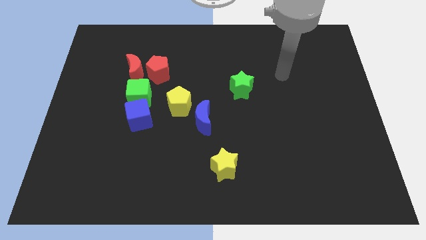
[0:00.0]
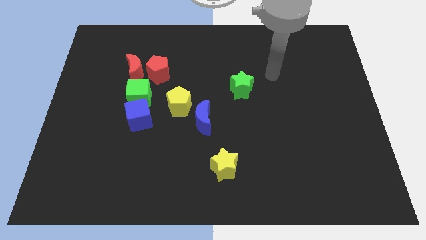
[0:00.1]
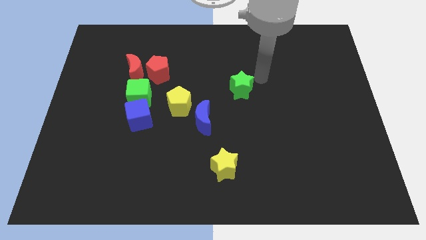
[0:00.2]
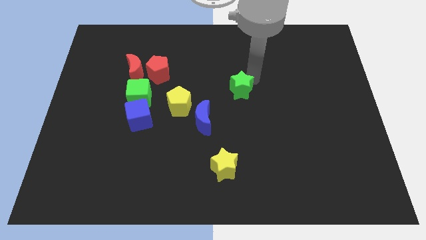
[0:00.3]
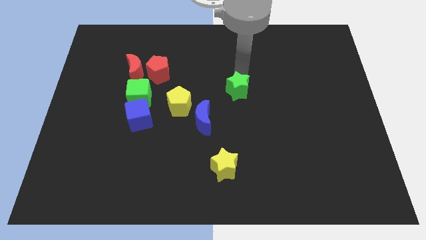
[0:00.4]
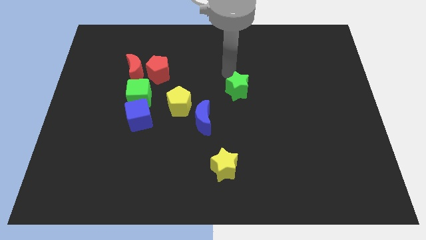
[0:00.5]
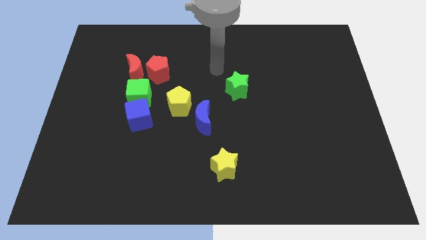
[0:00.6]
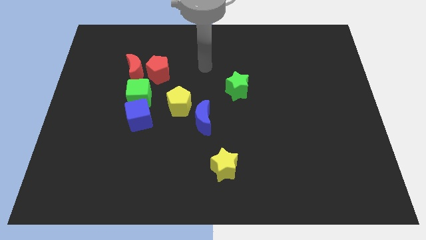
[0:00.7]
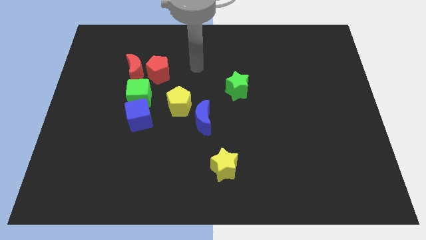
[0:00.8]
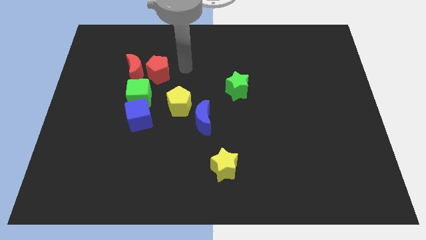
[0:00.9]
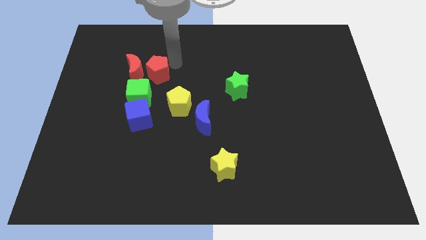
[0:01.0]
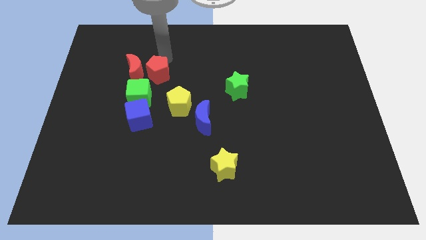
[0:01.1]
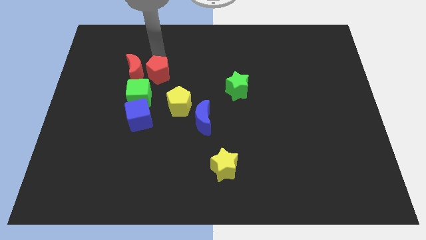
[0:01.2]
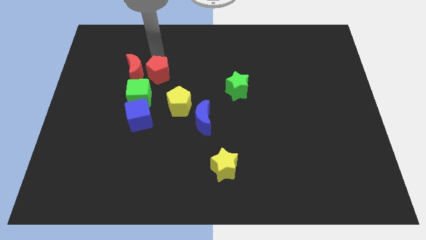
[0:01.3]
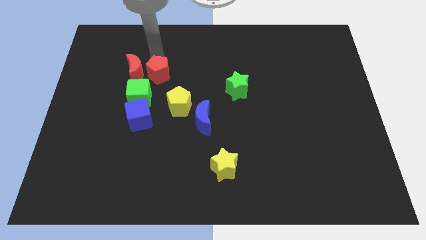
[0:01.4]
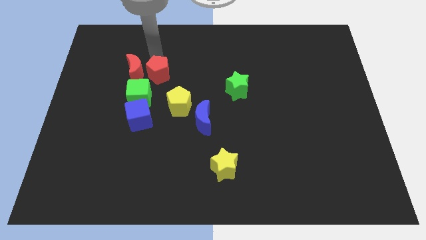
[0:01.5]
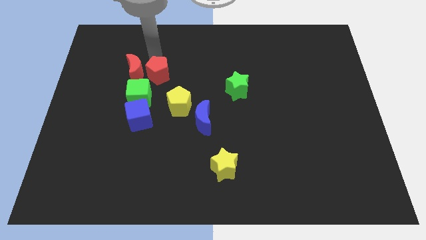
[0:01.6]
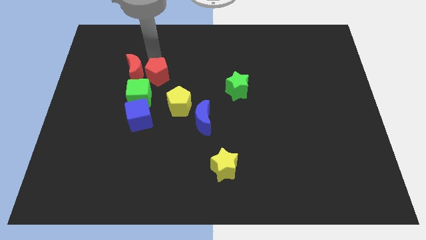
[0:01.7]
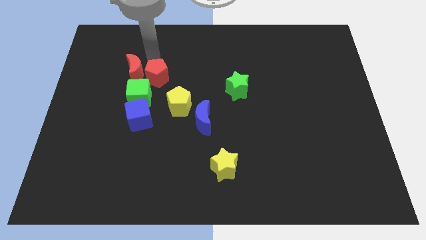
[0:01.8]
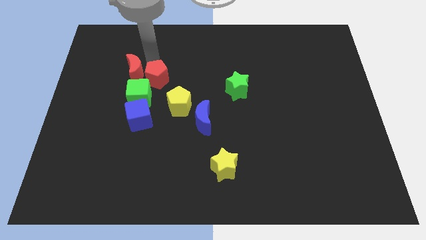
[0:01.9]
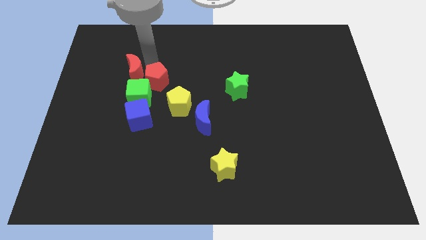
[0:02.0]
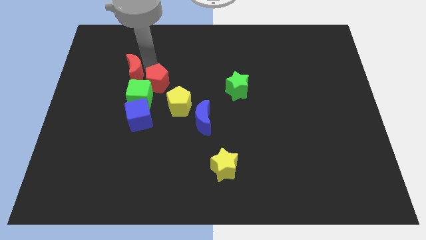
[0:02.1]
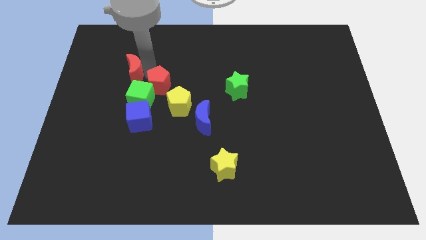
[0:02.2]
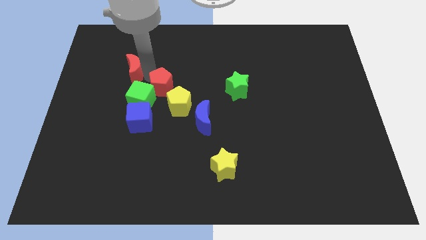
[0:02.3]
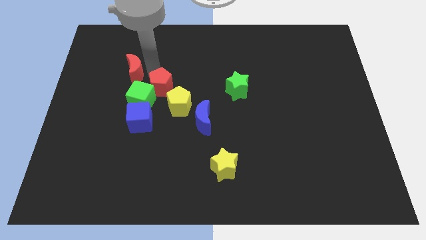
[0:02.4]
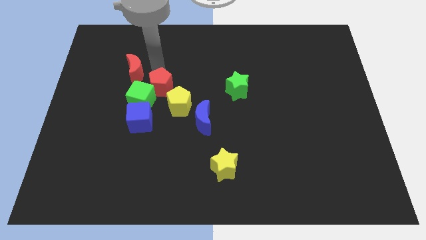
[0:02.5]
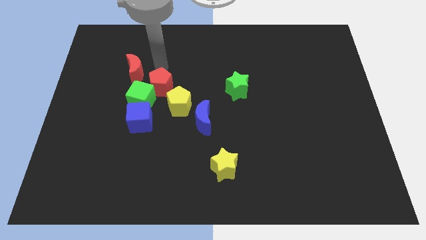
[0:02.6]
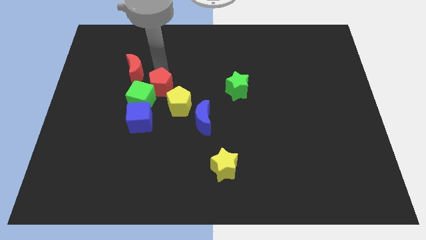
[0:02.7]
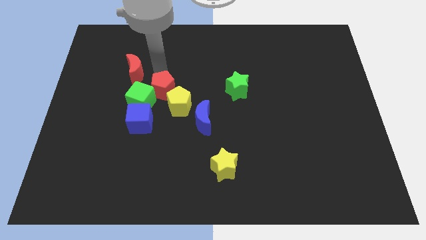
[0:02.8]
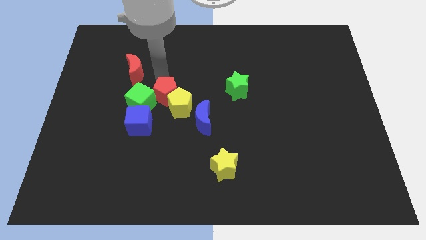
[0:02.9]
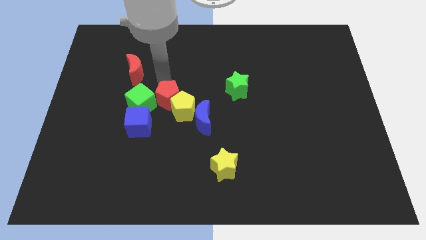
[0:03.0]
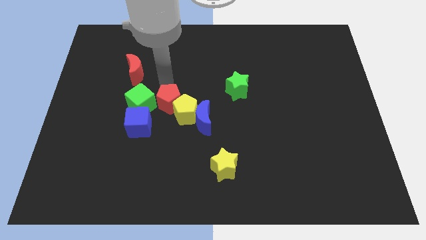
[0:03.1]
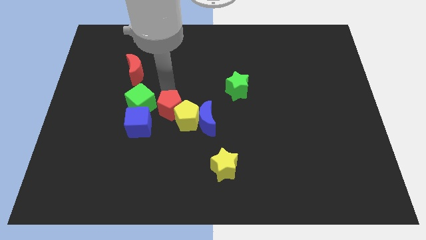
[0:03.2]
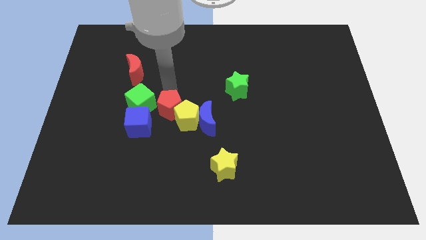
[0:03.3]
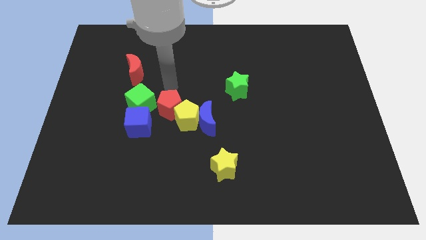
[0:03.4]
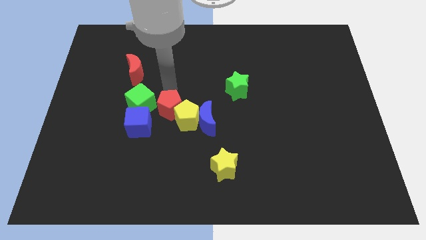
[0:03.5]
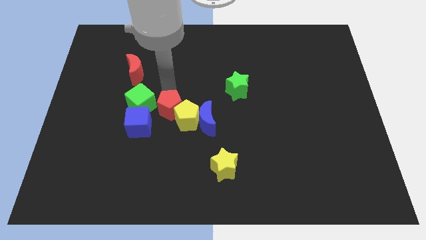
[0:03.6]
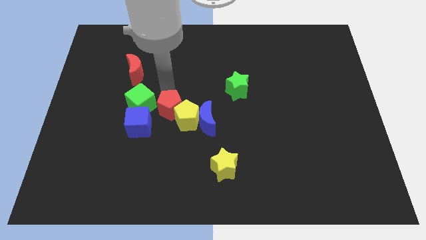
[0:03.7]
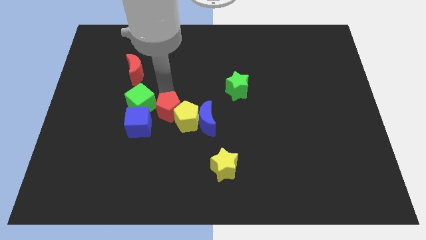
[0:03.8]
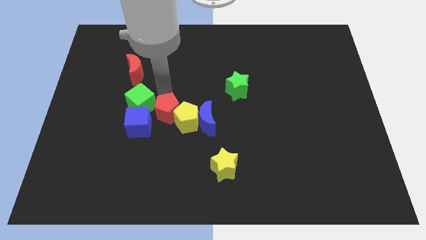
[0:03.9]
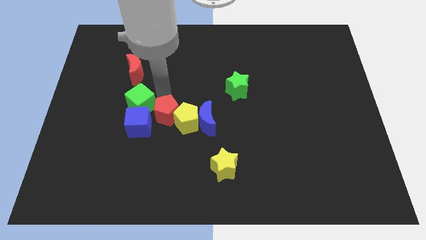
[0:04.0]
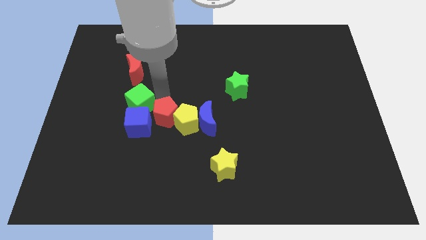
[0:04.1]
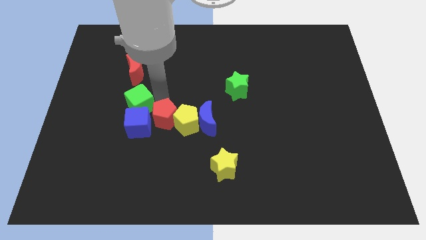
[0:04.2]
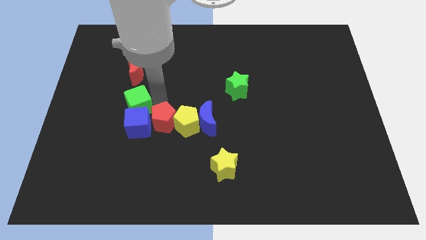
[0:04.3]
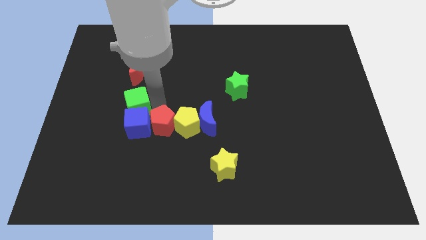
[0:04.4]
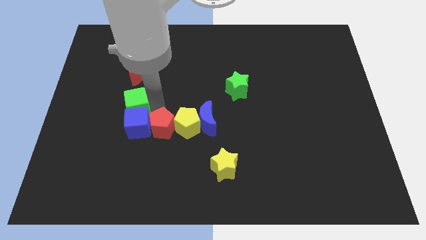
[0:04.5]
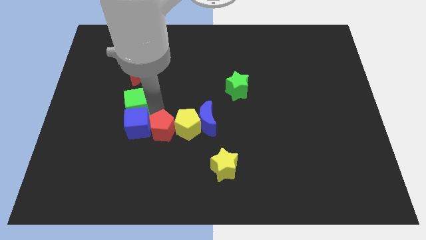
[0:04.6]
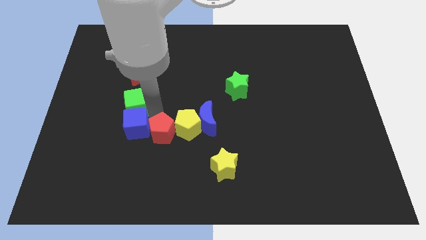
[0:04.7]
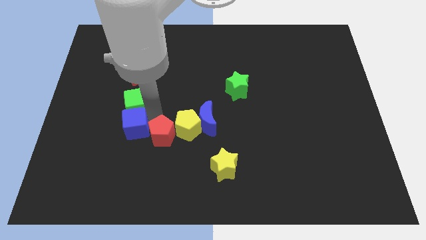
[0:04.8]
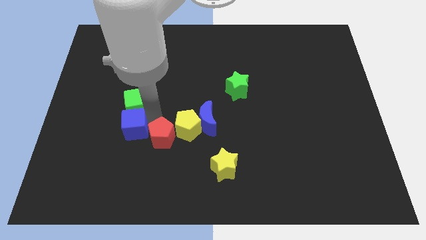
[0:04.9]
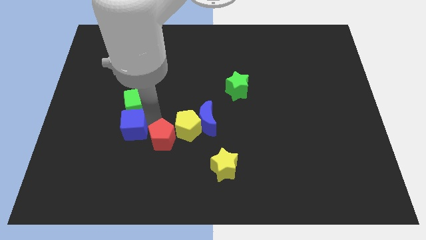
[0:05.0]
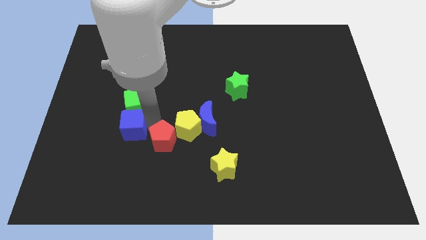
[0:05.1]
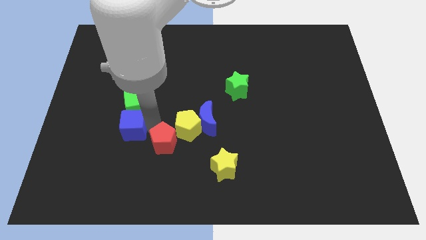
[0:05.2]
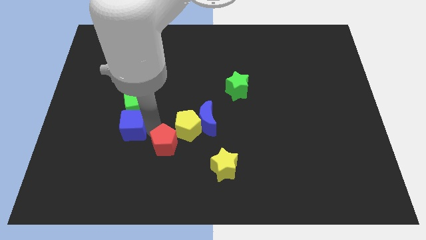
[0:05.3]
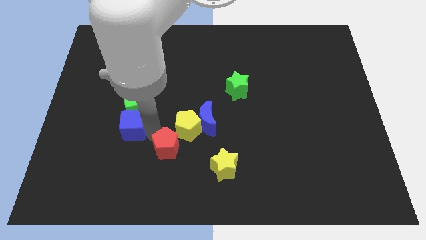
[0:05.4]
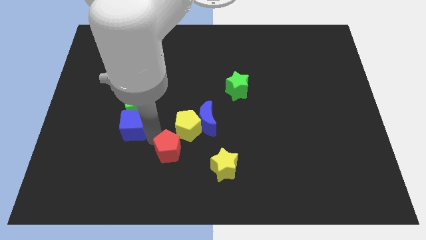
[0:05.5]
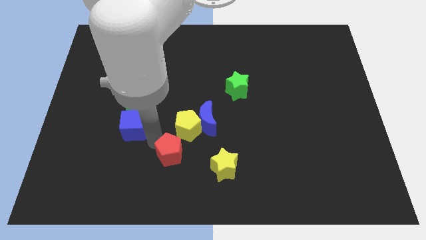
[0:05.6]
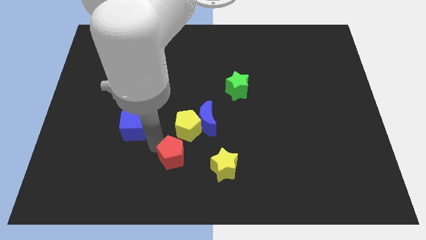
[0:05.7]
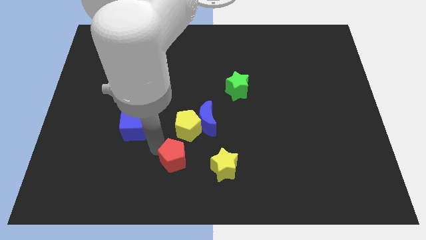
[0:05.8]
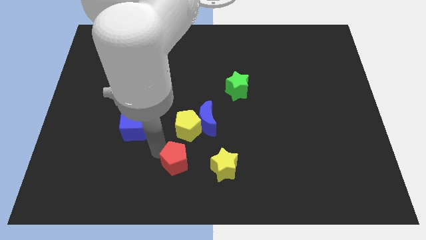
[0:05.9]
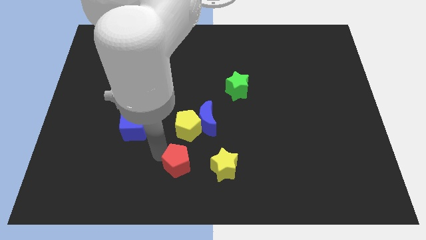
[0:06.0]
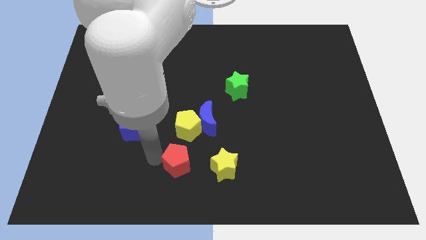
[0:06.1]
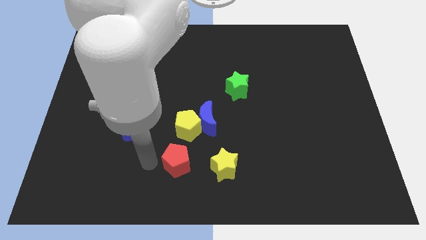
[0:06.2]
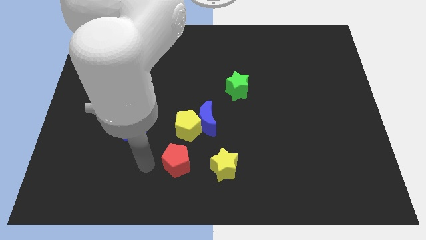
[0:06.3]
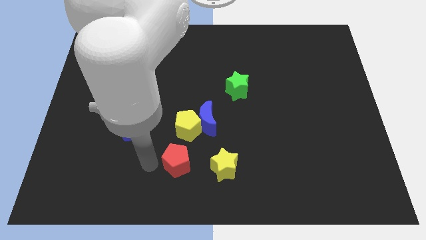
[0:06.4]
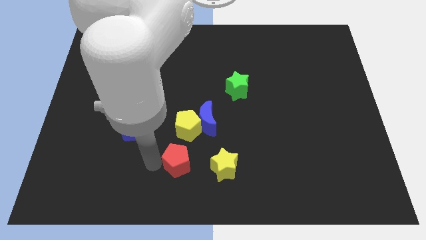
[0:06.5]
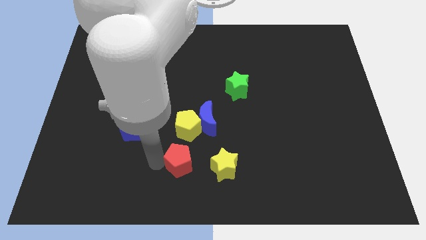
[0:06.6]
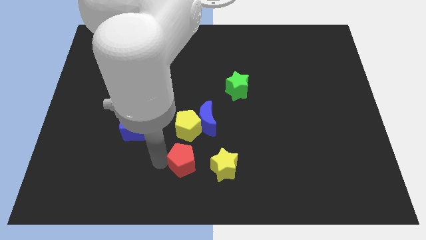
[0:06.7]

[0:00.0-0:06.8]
move the red pentagon to the bottom side of the blue moon

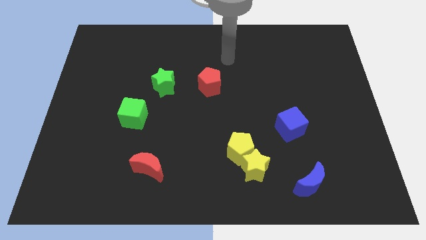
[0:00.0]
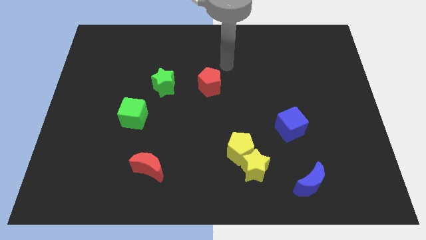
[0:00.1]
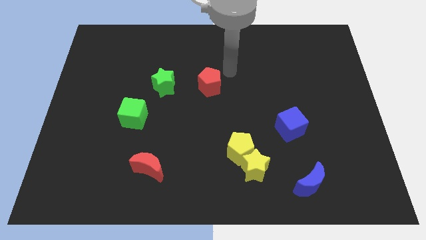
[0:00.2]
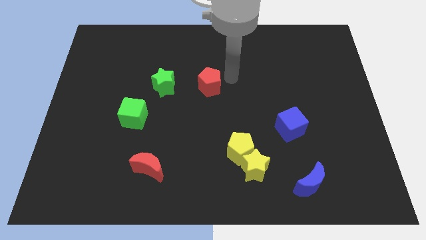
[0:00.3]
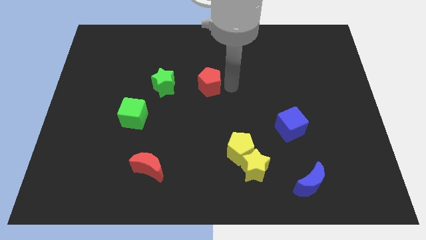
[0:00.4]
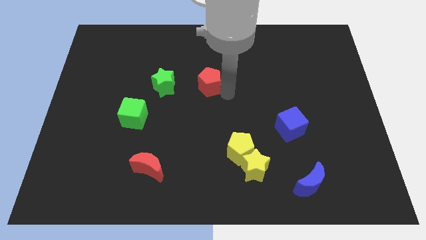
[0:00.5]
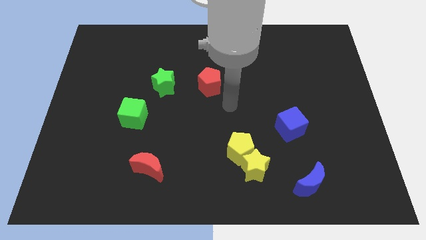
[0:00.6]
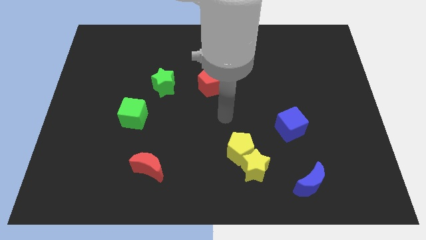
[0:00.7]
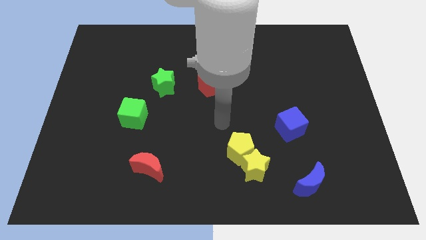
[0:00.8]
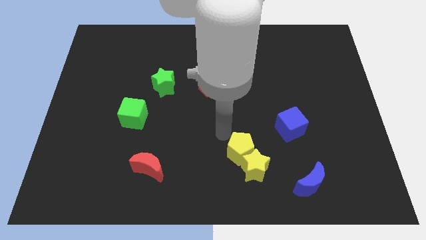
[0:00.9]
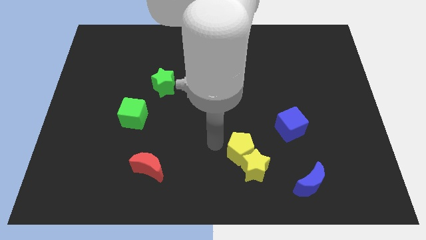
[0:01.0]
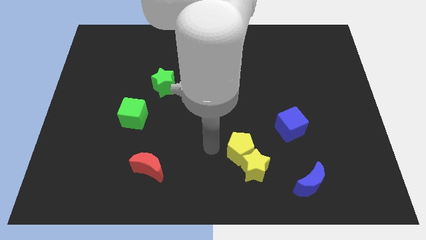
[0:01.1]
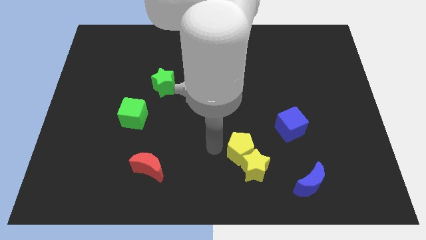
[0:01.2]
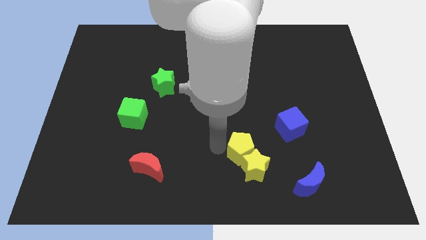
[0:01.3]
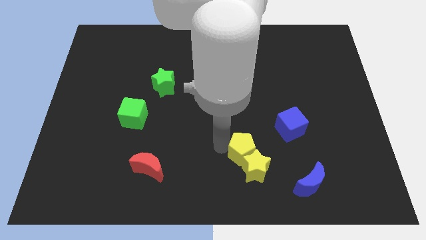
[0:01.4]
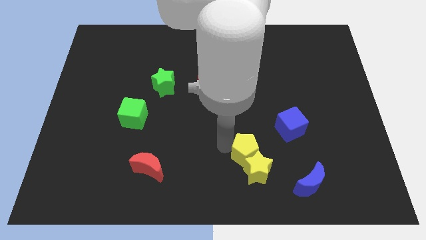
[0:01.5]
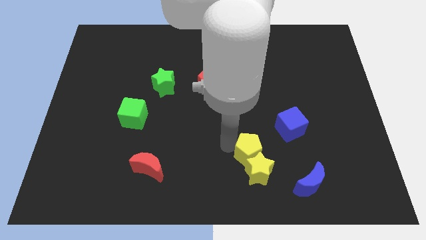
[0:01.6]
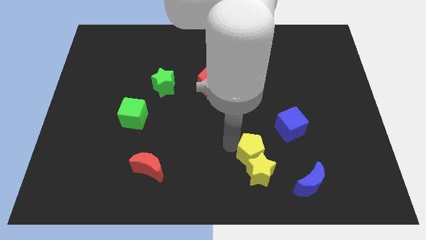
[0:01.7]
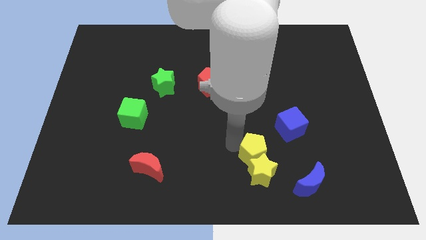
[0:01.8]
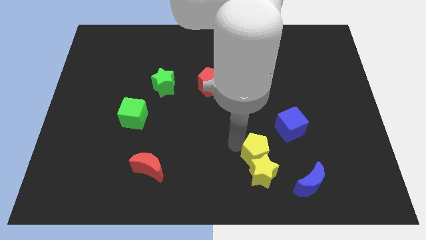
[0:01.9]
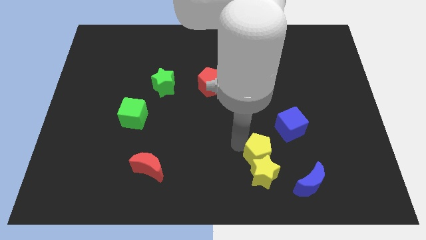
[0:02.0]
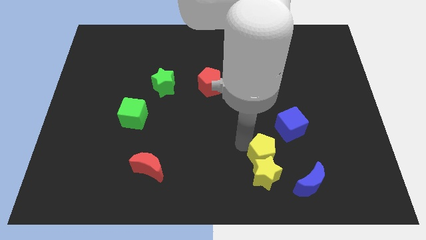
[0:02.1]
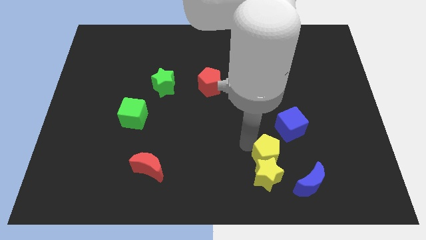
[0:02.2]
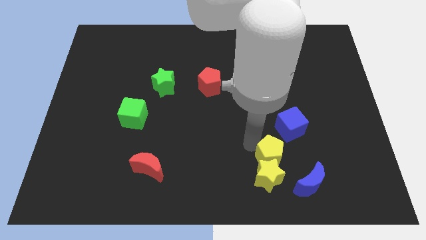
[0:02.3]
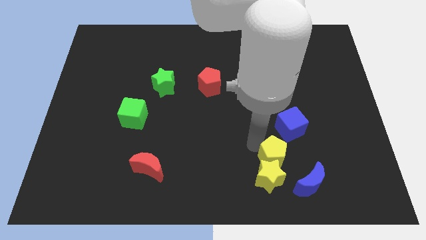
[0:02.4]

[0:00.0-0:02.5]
put the yellow pentagon to the bottom of the blue cube
